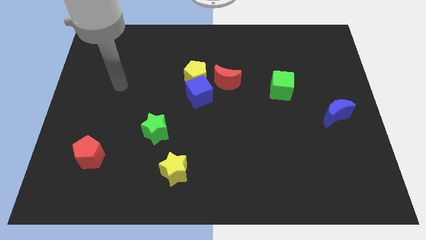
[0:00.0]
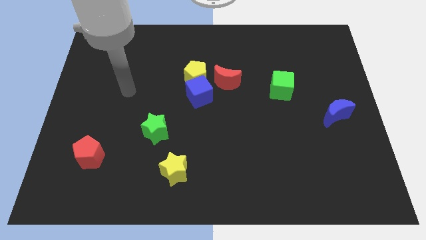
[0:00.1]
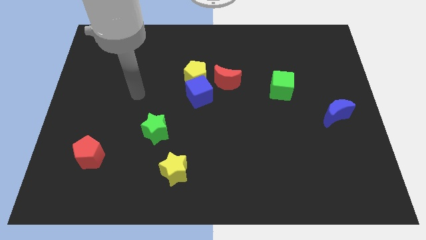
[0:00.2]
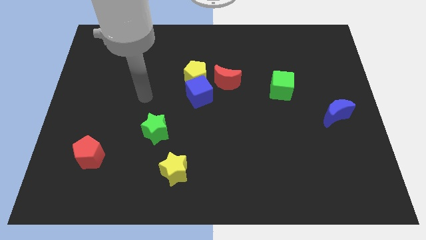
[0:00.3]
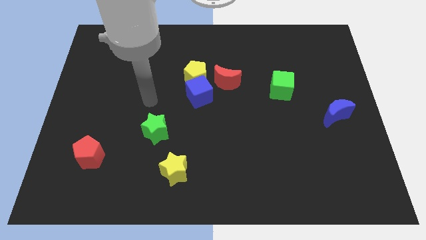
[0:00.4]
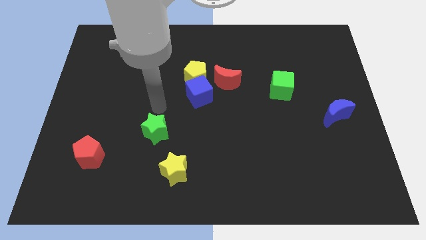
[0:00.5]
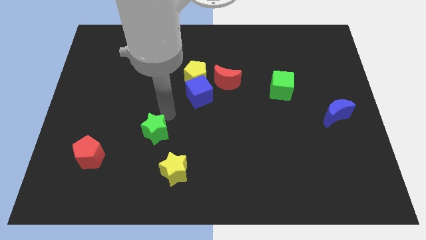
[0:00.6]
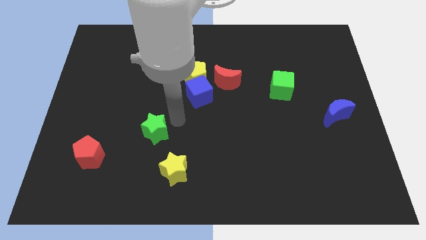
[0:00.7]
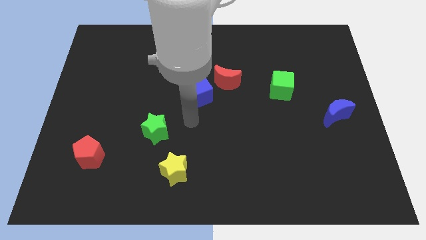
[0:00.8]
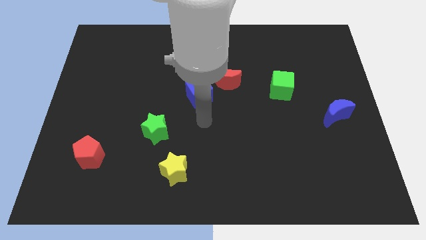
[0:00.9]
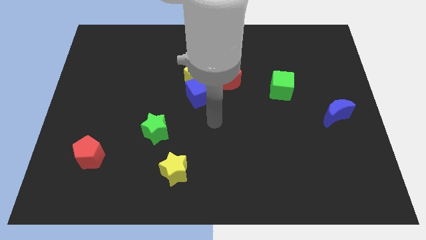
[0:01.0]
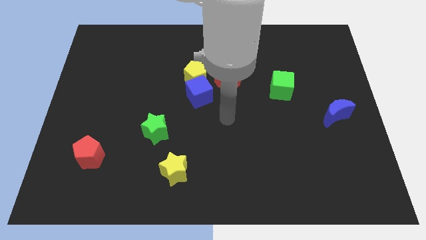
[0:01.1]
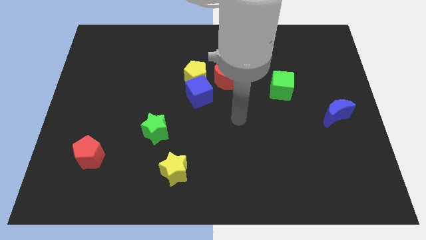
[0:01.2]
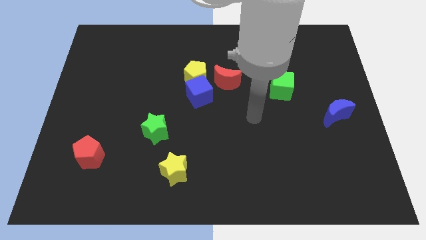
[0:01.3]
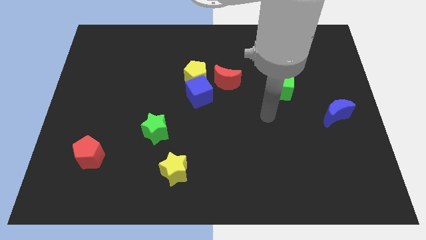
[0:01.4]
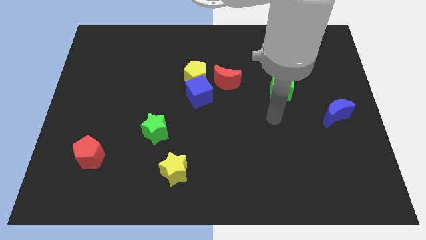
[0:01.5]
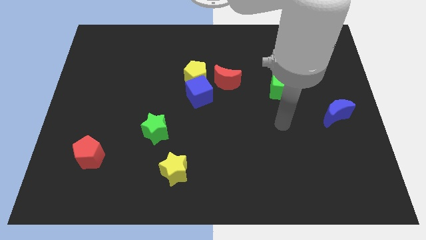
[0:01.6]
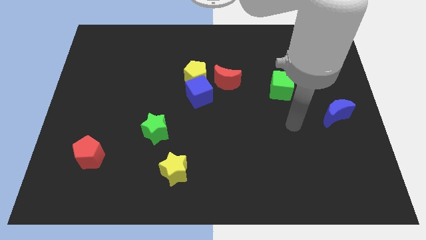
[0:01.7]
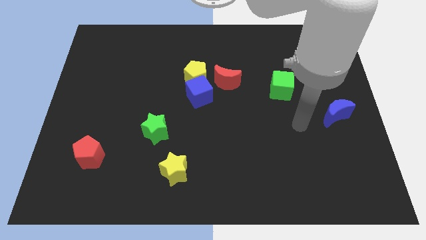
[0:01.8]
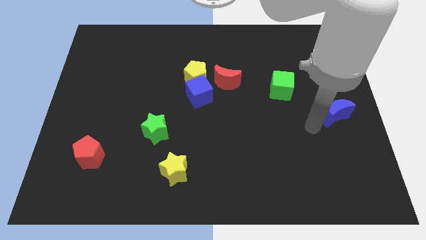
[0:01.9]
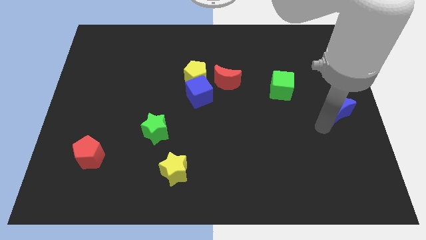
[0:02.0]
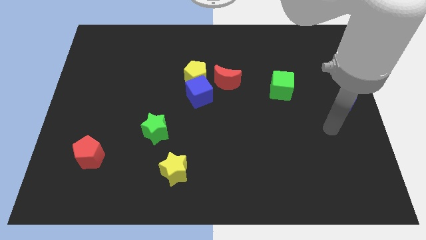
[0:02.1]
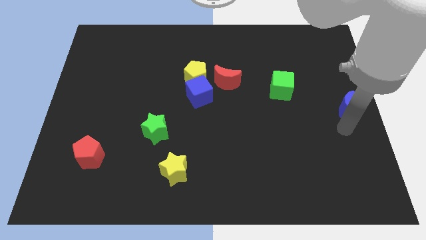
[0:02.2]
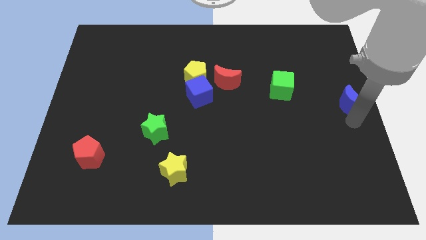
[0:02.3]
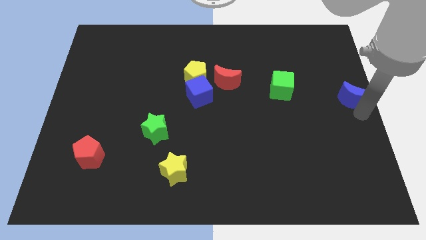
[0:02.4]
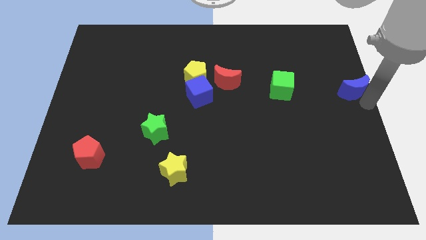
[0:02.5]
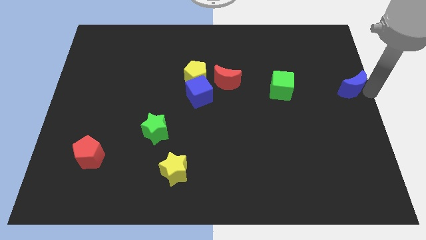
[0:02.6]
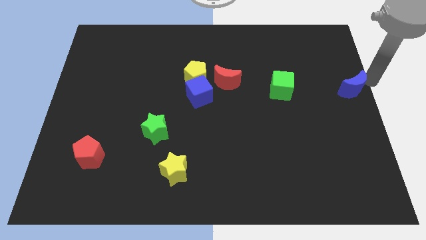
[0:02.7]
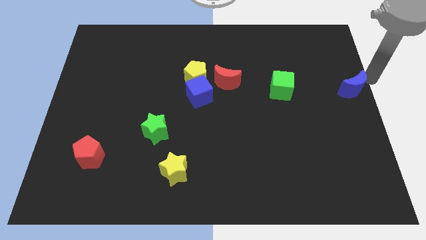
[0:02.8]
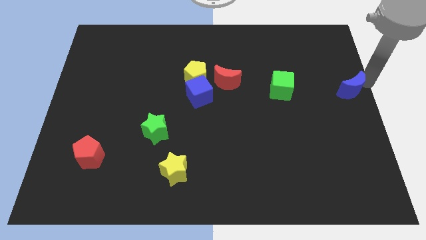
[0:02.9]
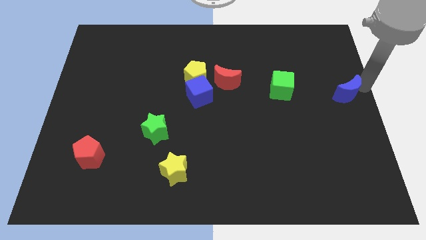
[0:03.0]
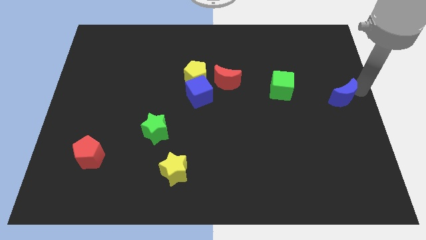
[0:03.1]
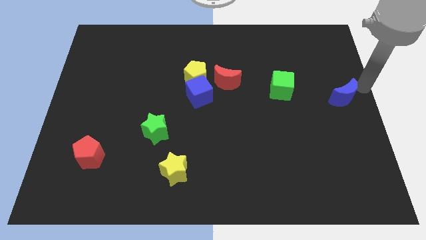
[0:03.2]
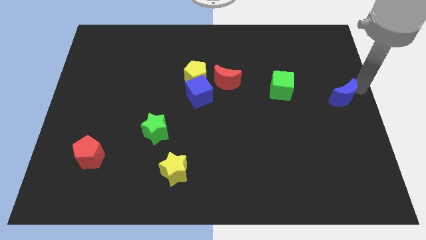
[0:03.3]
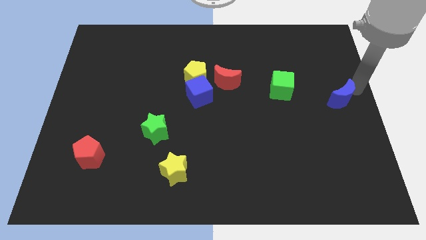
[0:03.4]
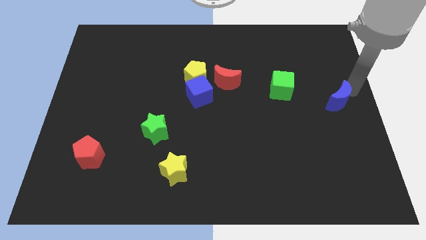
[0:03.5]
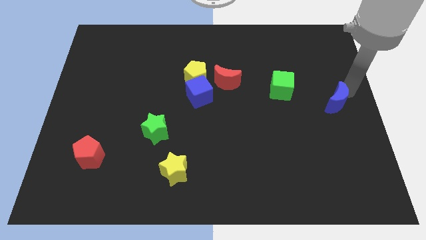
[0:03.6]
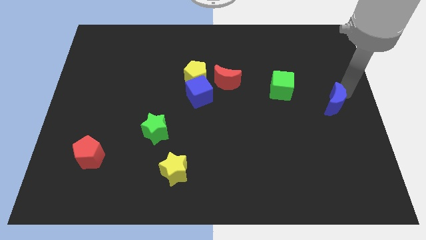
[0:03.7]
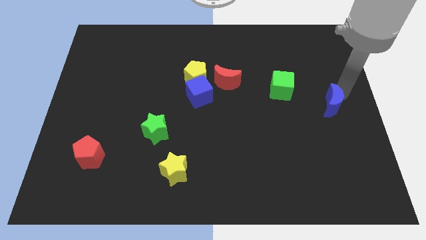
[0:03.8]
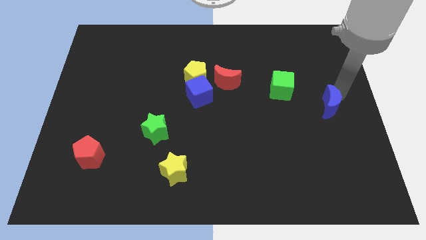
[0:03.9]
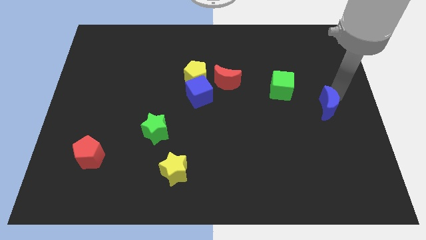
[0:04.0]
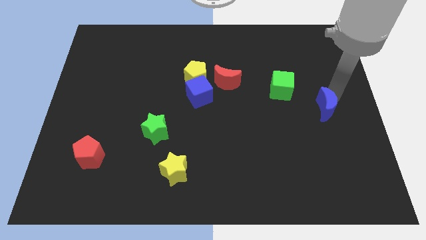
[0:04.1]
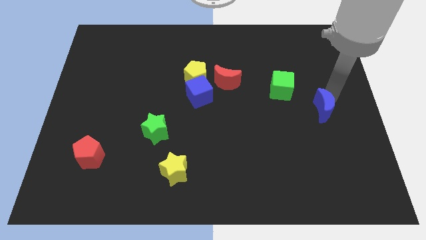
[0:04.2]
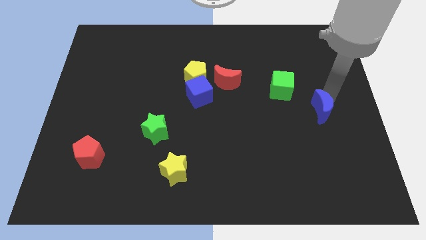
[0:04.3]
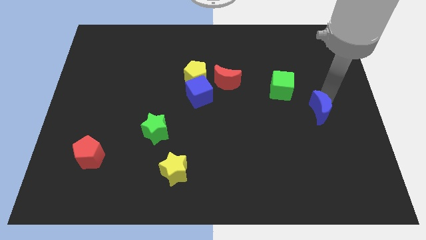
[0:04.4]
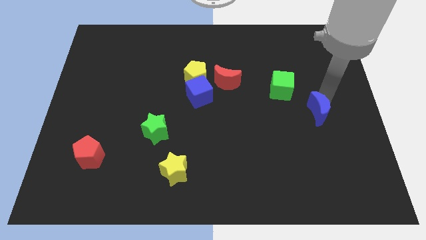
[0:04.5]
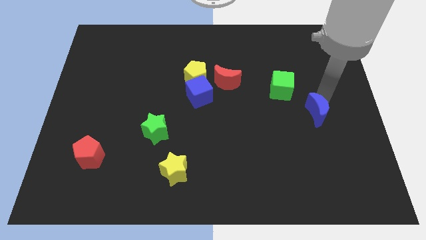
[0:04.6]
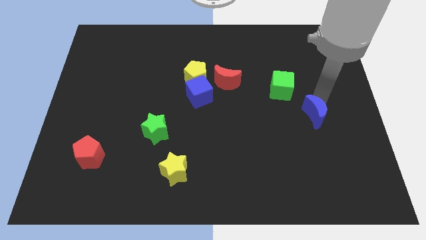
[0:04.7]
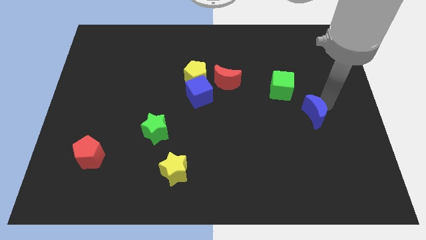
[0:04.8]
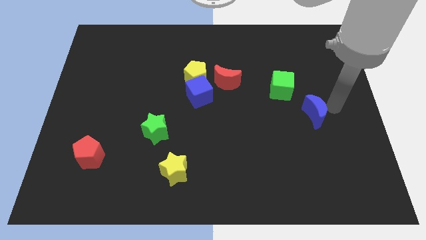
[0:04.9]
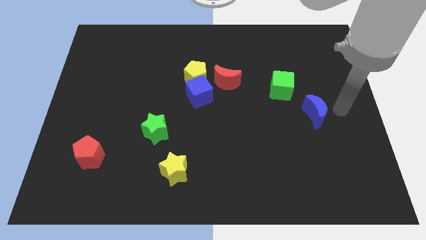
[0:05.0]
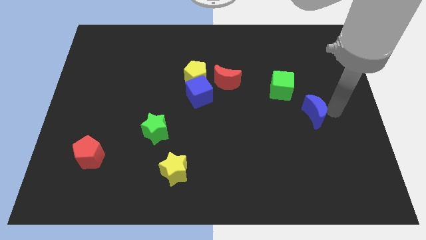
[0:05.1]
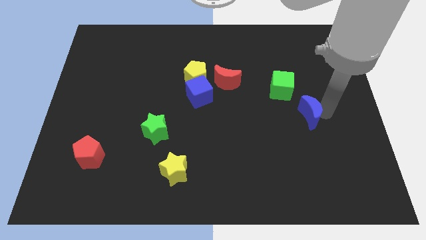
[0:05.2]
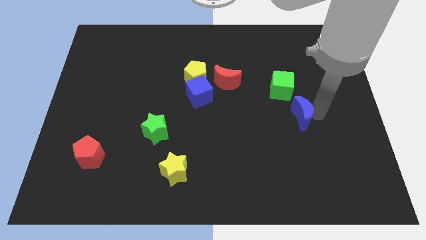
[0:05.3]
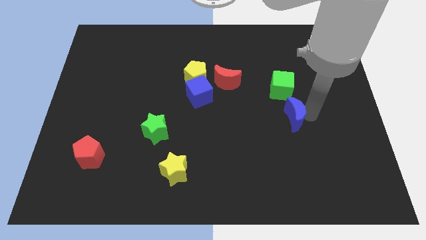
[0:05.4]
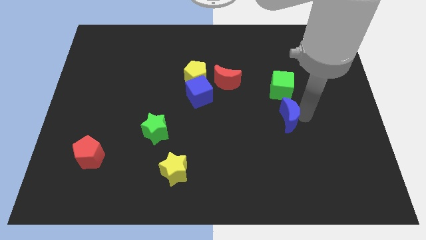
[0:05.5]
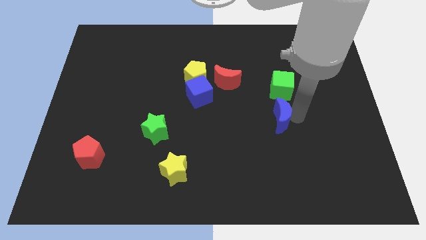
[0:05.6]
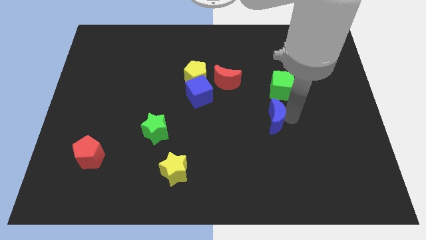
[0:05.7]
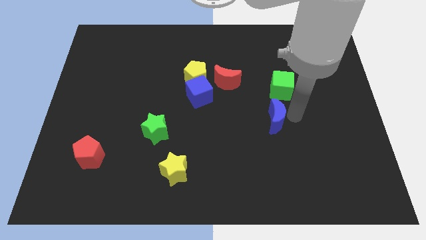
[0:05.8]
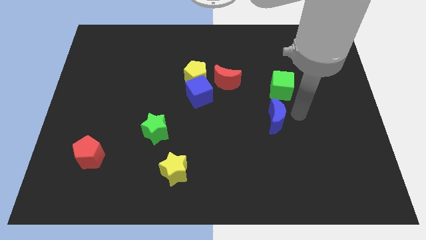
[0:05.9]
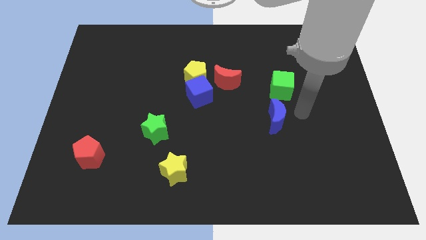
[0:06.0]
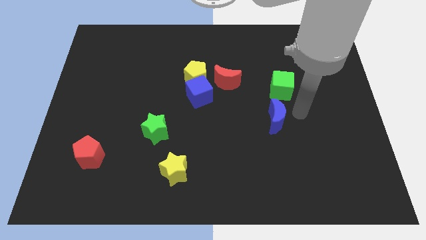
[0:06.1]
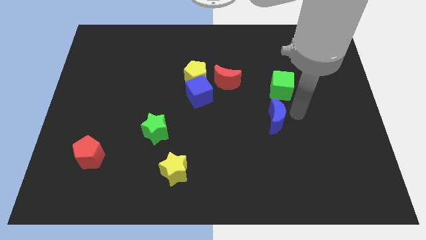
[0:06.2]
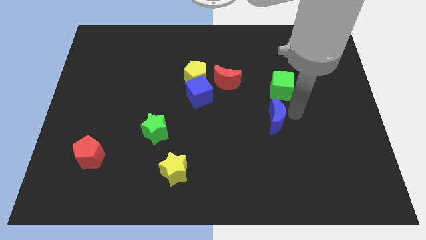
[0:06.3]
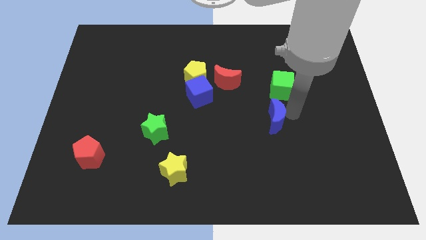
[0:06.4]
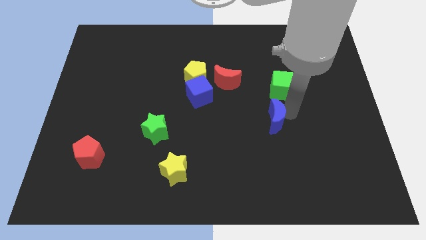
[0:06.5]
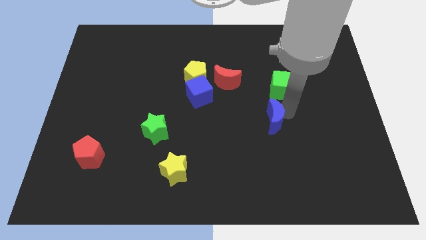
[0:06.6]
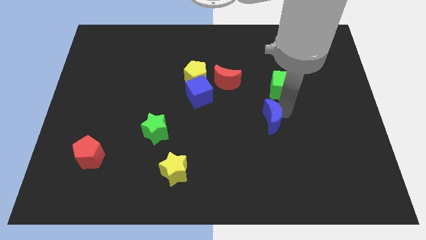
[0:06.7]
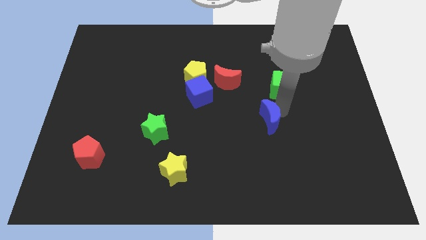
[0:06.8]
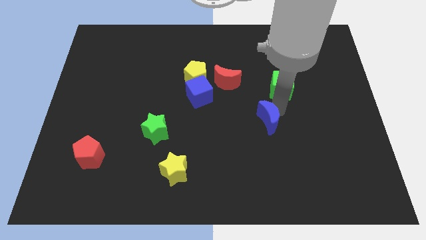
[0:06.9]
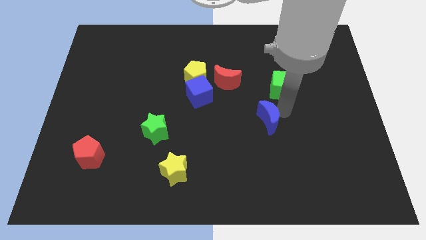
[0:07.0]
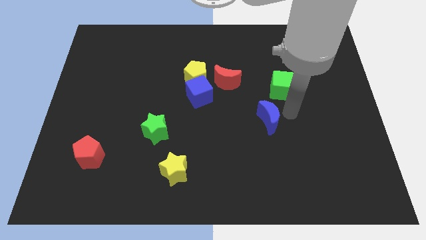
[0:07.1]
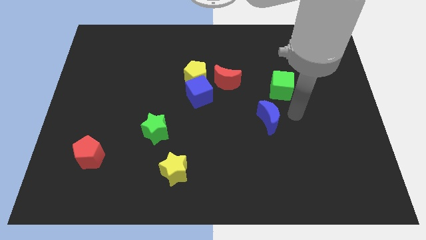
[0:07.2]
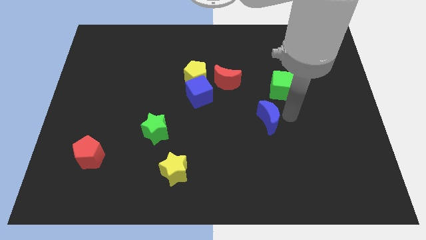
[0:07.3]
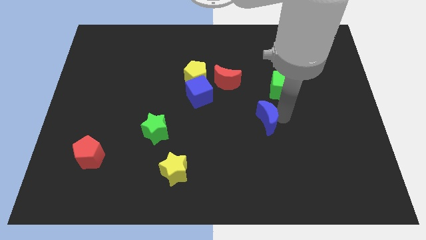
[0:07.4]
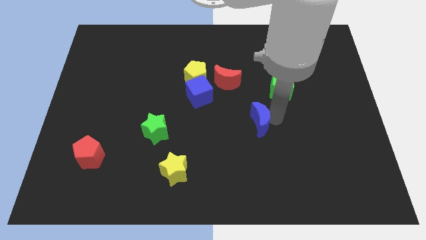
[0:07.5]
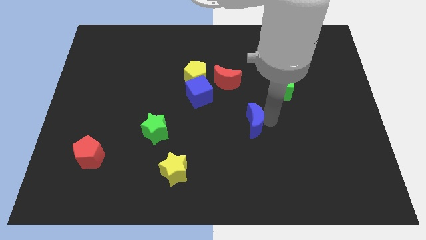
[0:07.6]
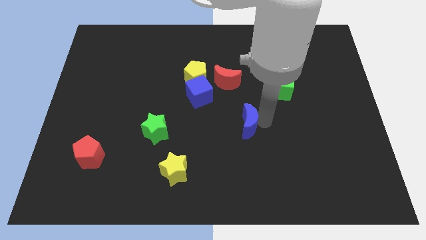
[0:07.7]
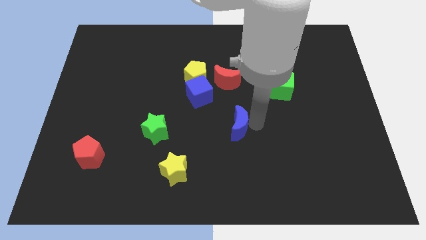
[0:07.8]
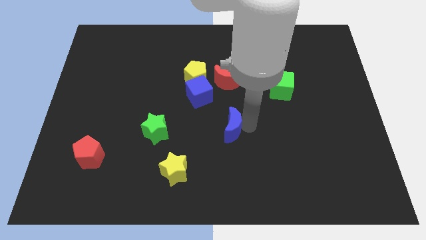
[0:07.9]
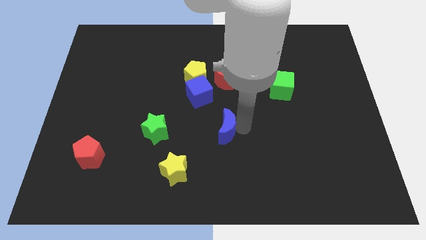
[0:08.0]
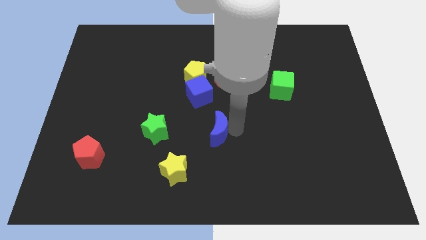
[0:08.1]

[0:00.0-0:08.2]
slide the blue moon to the bottom side of the blue cube
